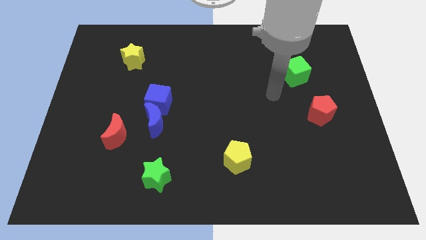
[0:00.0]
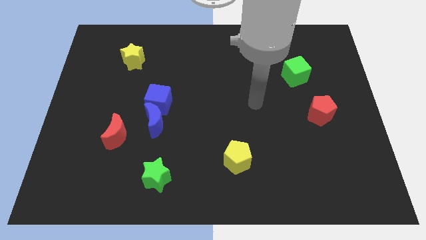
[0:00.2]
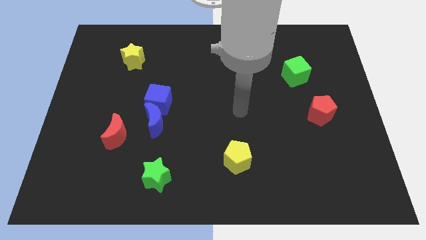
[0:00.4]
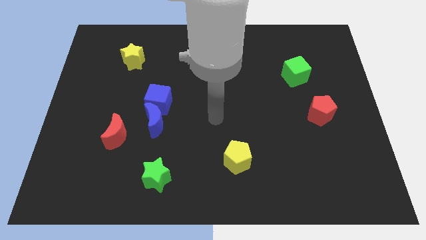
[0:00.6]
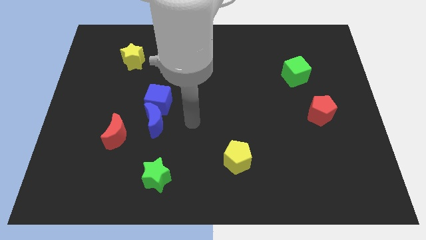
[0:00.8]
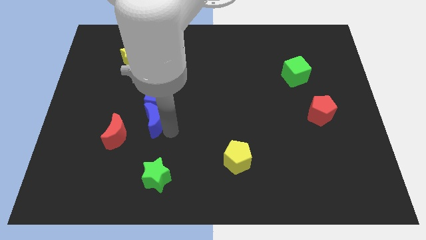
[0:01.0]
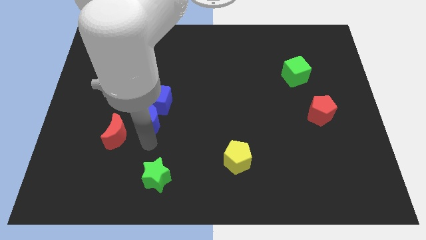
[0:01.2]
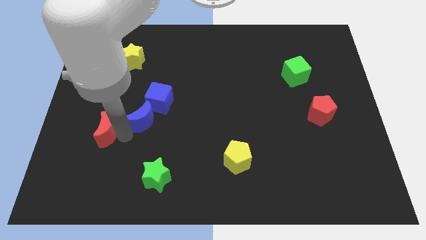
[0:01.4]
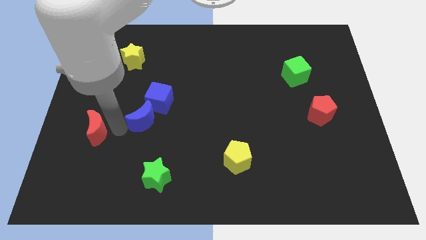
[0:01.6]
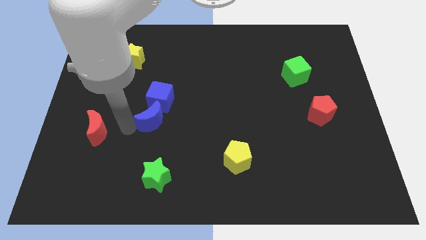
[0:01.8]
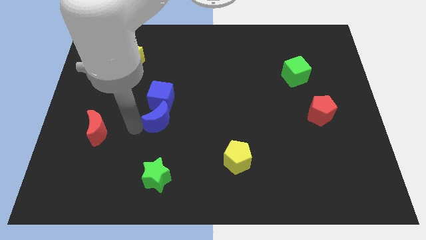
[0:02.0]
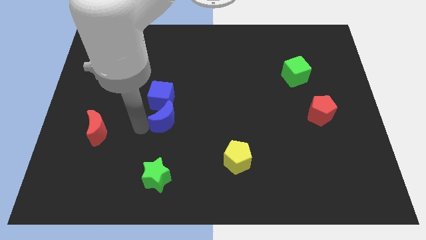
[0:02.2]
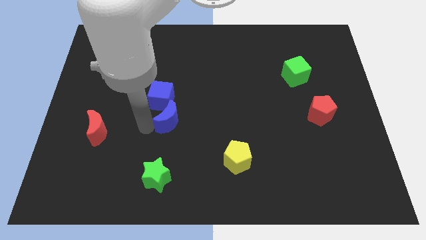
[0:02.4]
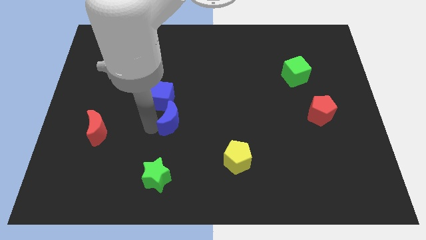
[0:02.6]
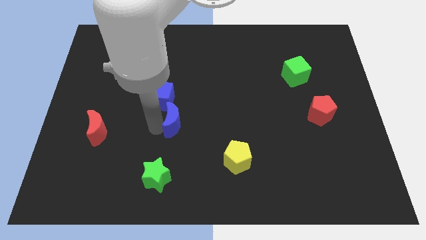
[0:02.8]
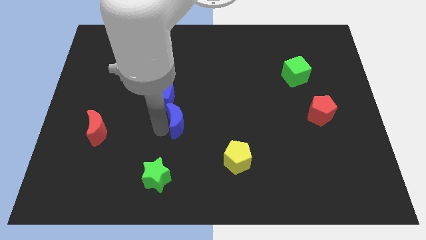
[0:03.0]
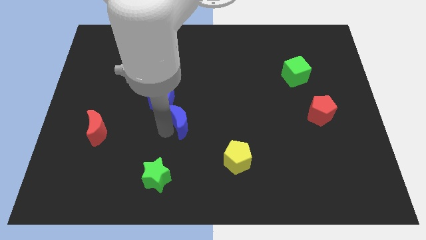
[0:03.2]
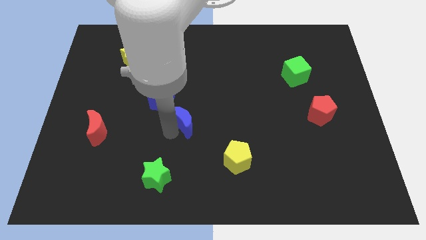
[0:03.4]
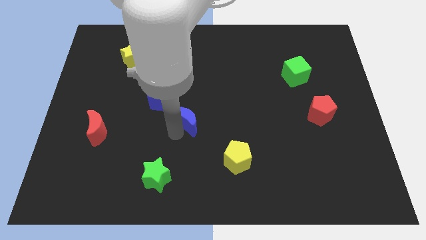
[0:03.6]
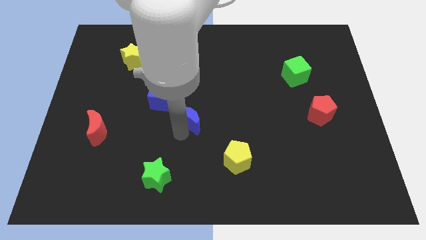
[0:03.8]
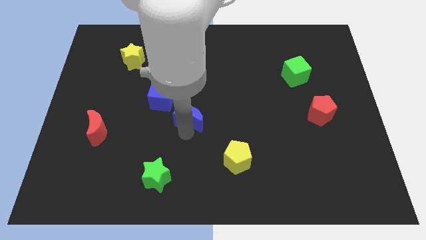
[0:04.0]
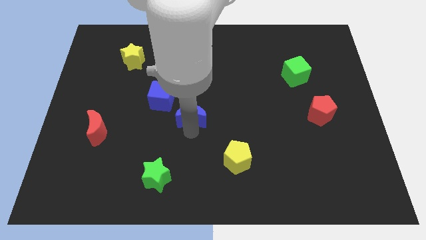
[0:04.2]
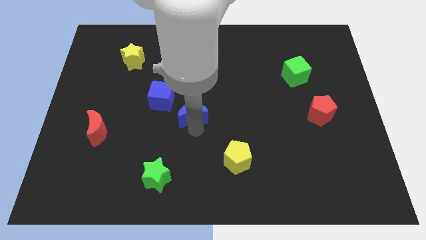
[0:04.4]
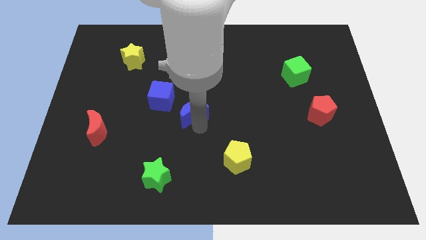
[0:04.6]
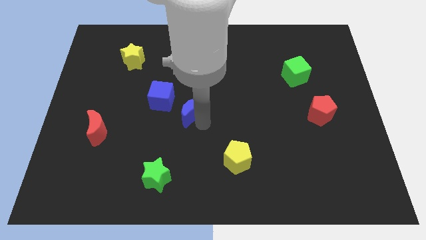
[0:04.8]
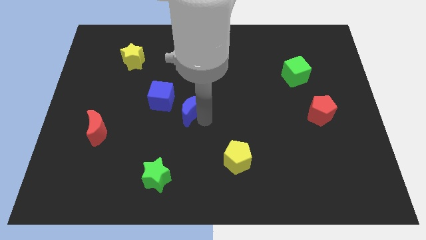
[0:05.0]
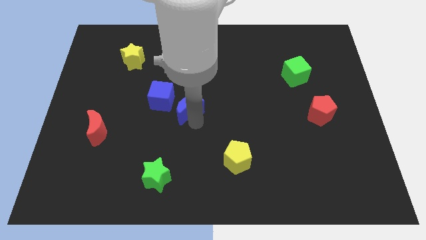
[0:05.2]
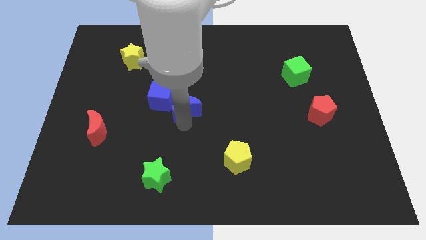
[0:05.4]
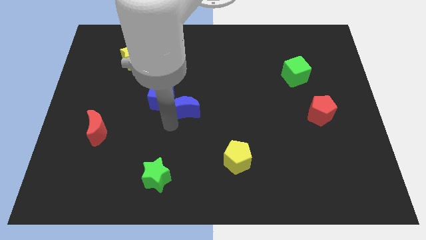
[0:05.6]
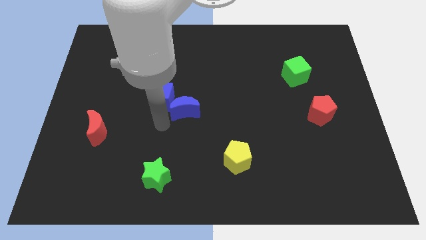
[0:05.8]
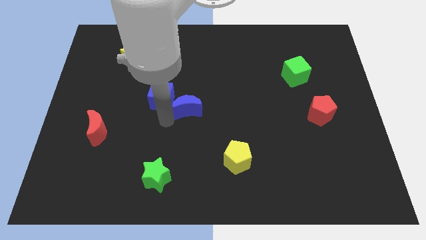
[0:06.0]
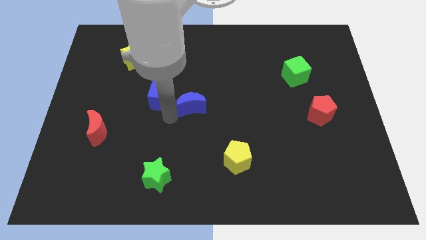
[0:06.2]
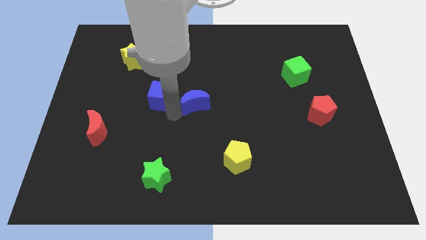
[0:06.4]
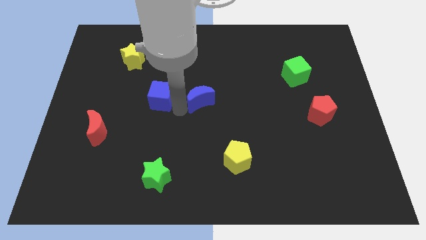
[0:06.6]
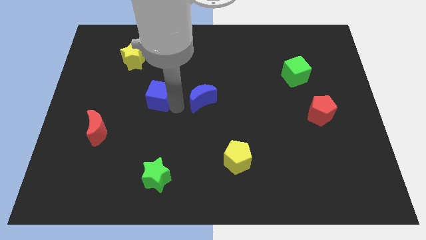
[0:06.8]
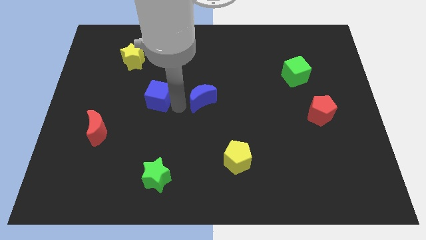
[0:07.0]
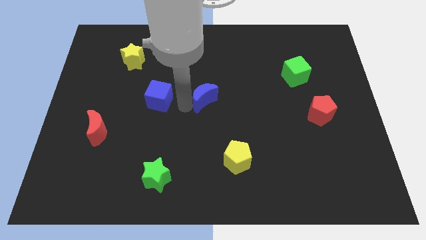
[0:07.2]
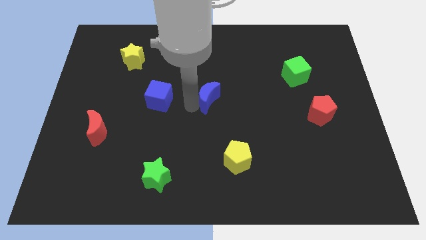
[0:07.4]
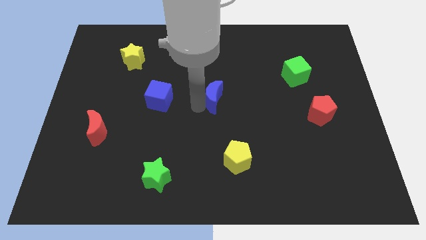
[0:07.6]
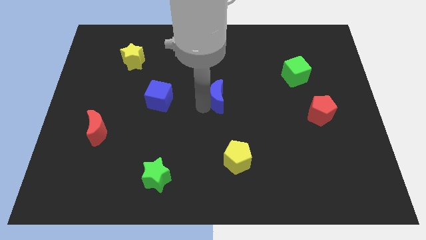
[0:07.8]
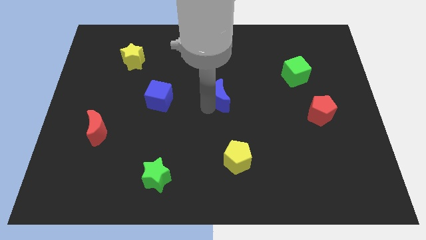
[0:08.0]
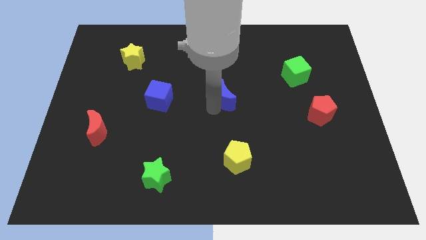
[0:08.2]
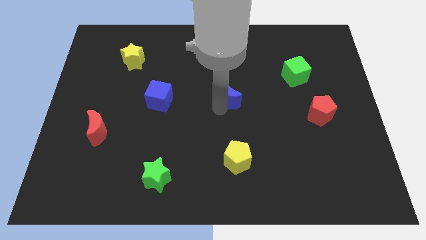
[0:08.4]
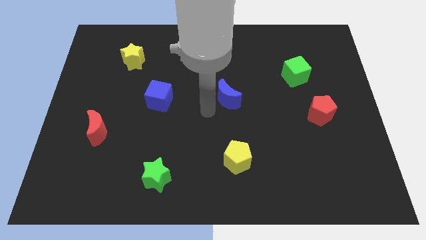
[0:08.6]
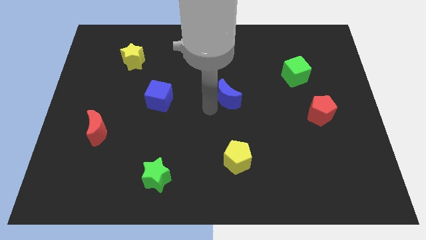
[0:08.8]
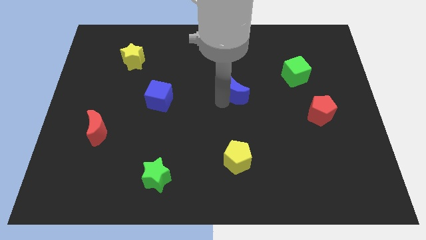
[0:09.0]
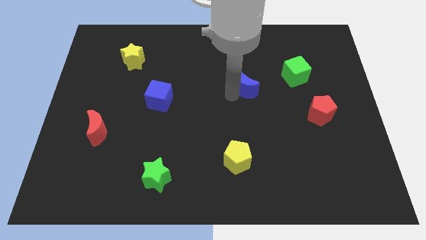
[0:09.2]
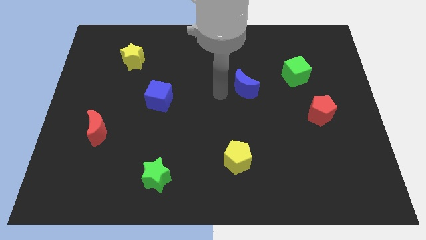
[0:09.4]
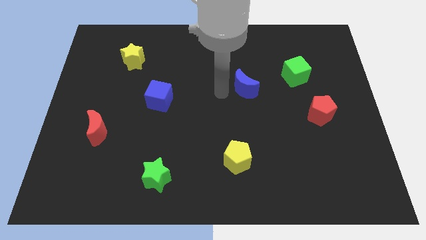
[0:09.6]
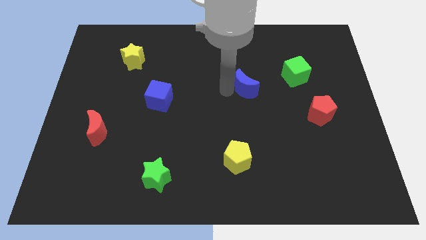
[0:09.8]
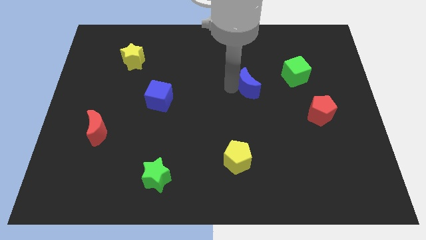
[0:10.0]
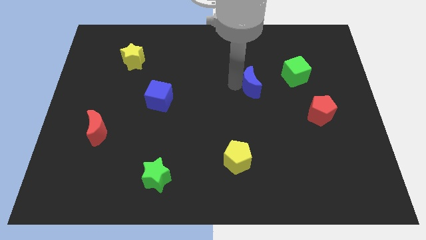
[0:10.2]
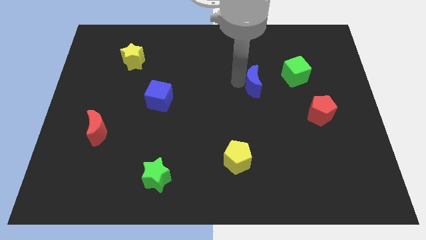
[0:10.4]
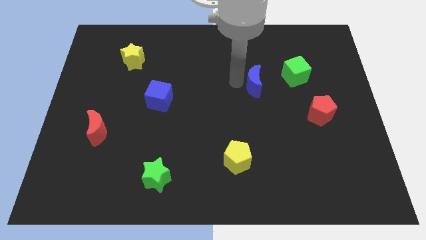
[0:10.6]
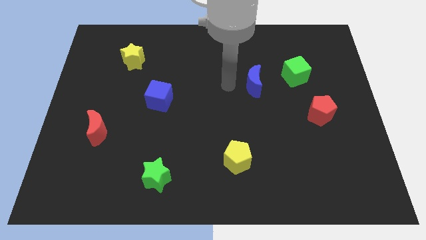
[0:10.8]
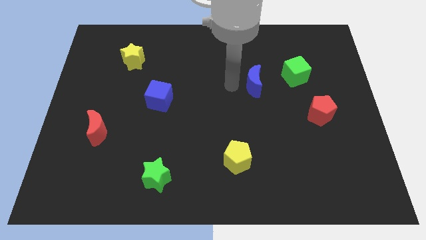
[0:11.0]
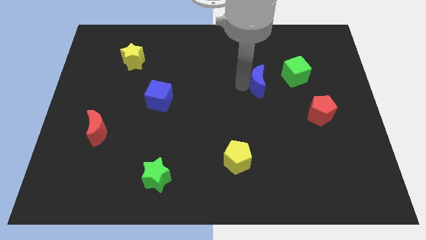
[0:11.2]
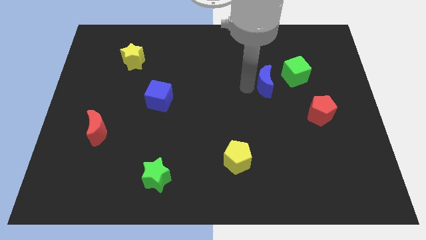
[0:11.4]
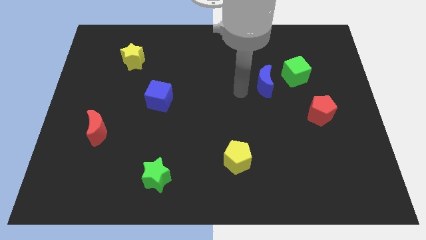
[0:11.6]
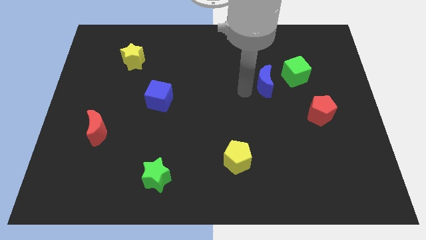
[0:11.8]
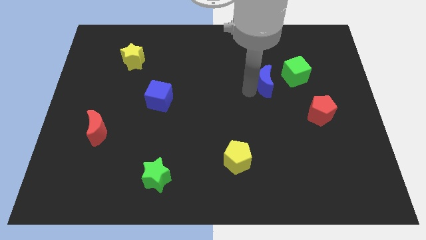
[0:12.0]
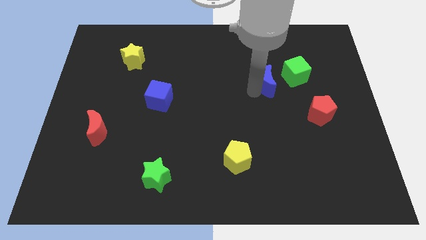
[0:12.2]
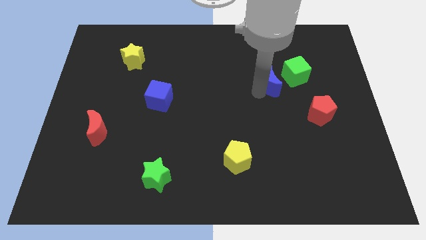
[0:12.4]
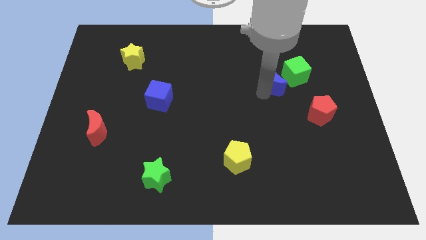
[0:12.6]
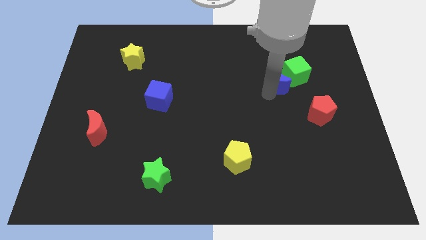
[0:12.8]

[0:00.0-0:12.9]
slide the blue moon next to the green cube

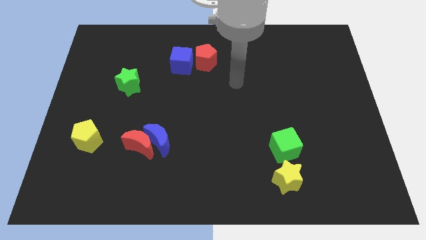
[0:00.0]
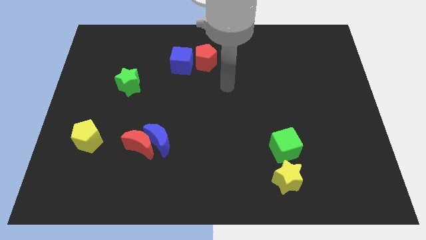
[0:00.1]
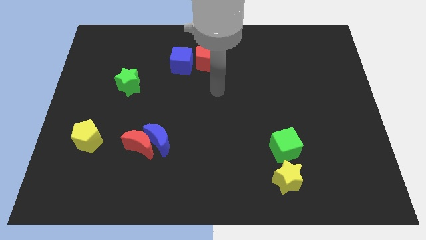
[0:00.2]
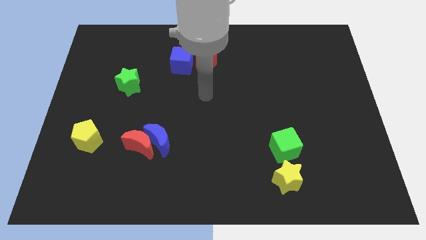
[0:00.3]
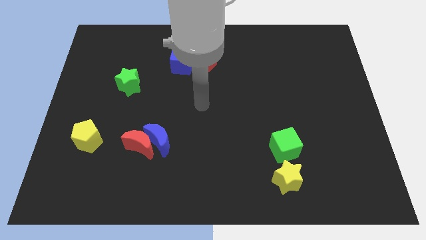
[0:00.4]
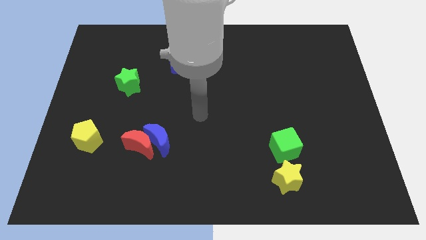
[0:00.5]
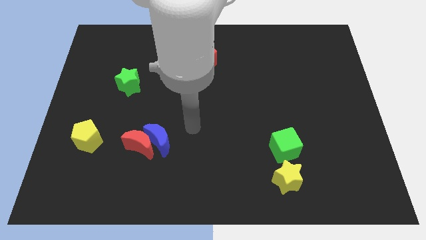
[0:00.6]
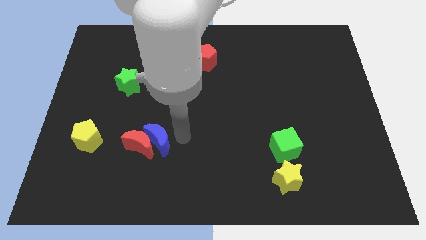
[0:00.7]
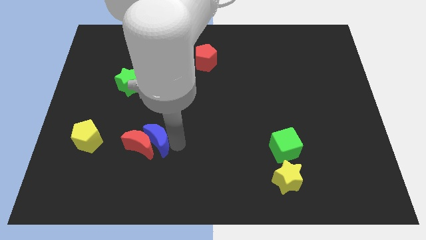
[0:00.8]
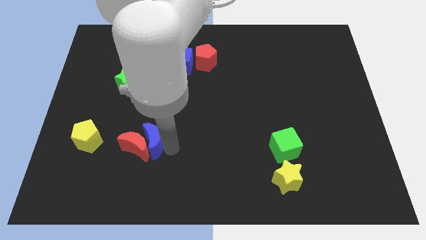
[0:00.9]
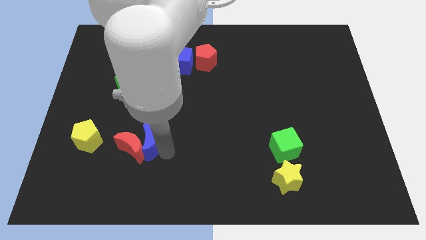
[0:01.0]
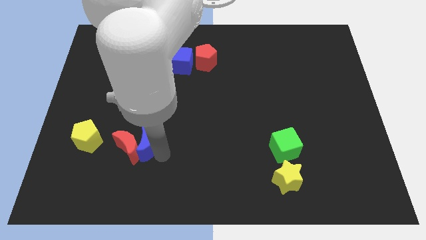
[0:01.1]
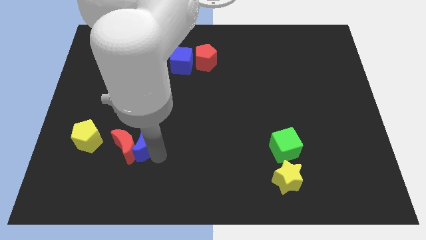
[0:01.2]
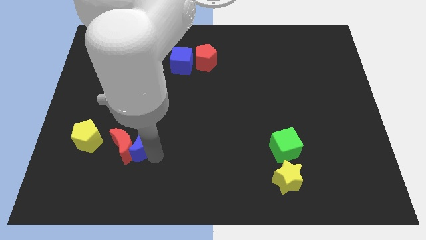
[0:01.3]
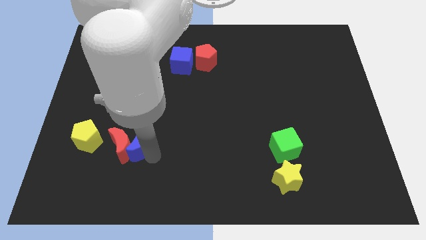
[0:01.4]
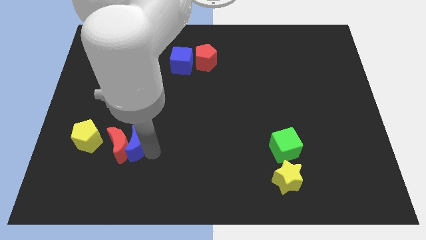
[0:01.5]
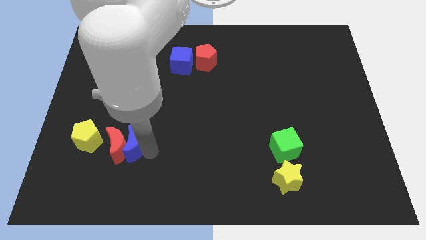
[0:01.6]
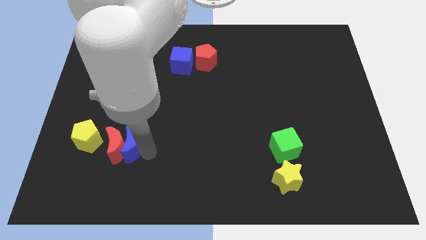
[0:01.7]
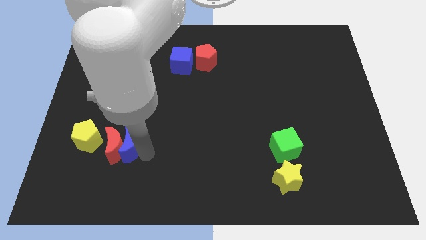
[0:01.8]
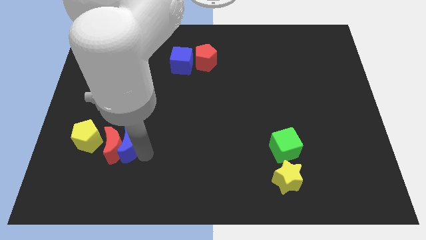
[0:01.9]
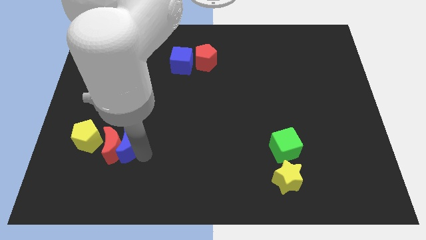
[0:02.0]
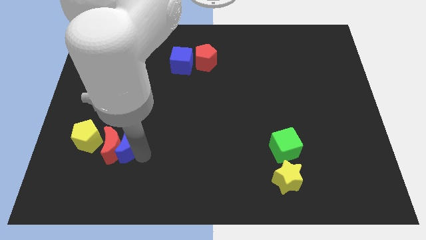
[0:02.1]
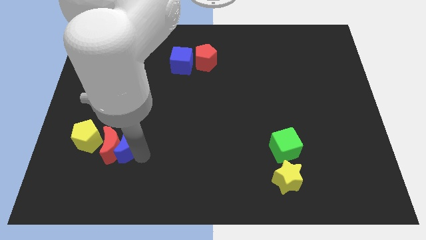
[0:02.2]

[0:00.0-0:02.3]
slide the red moon towards the yellow pentagon
